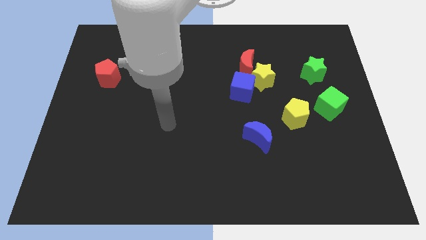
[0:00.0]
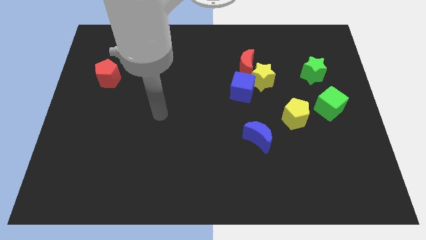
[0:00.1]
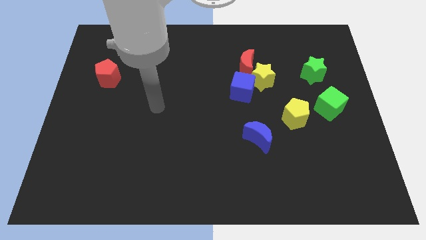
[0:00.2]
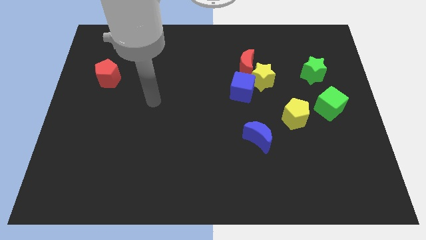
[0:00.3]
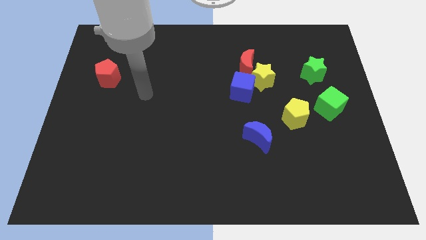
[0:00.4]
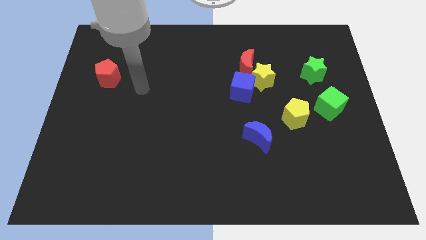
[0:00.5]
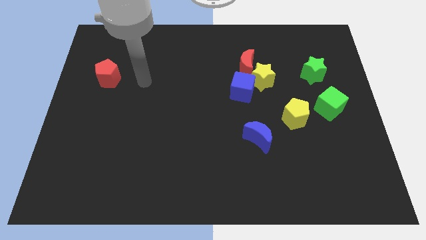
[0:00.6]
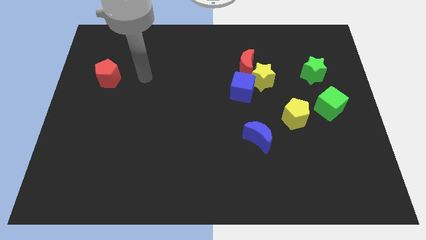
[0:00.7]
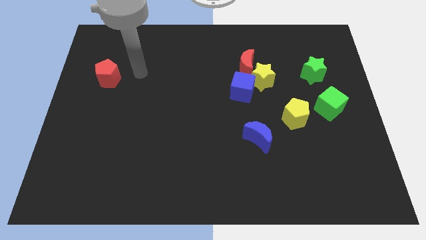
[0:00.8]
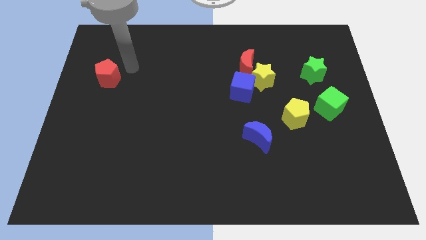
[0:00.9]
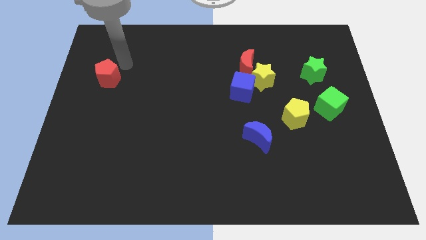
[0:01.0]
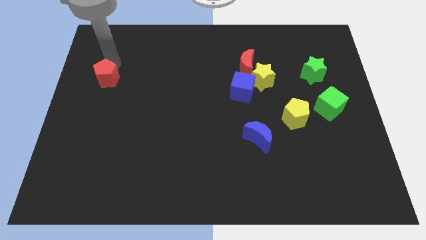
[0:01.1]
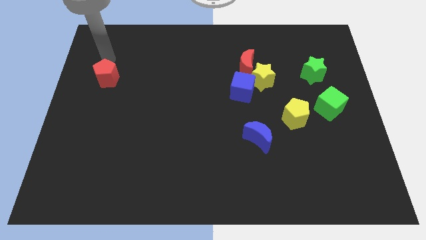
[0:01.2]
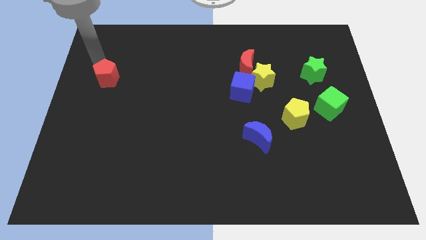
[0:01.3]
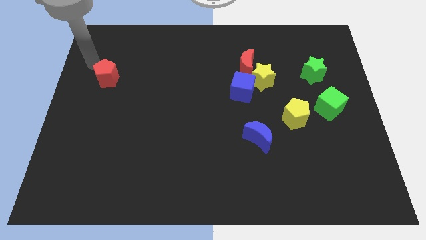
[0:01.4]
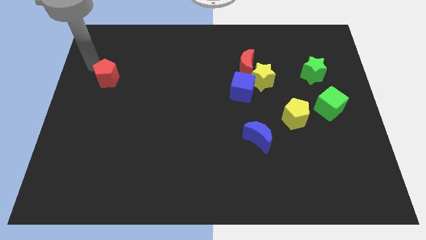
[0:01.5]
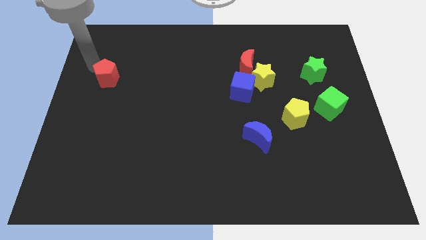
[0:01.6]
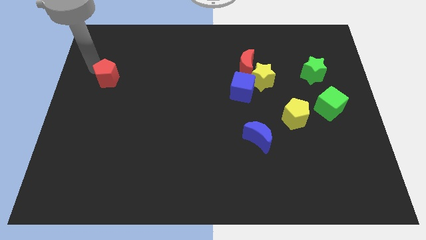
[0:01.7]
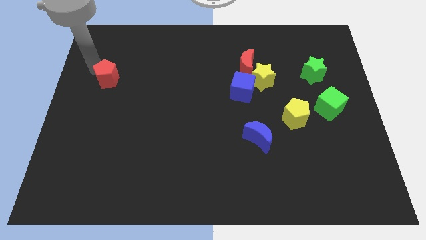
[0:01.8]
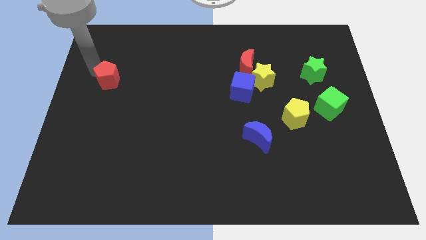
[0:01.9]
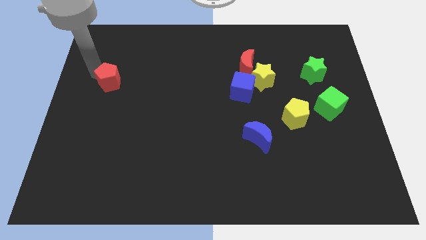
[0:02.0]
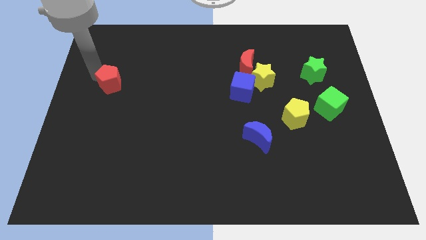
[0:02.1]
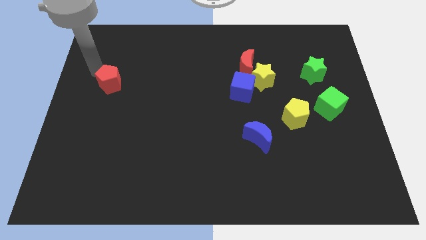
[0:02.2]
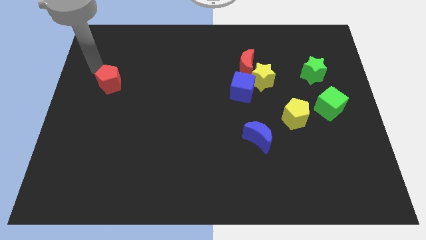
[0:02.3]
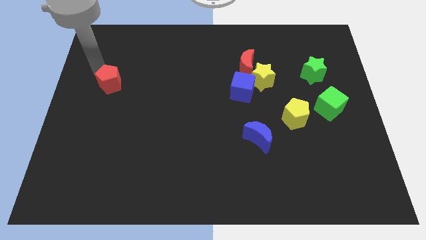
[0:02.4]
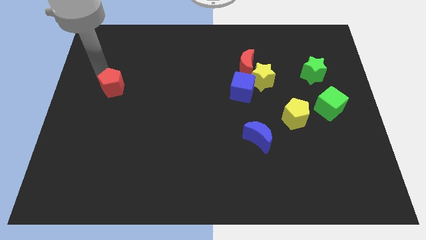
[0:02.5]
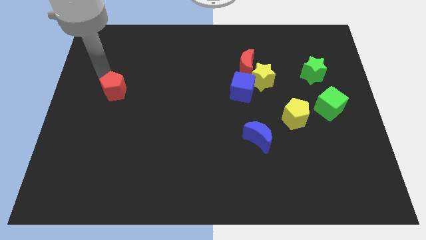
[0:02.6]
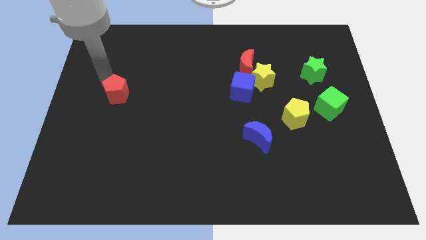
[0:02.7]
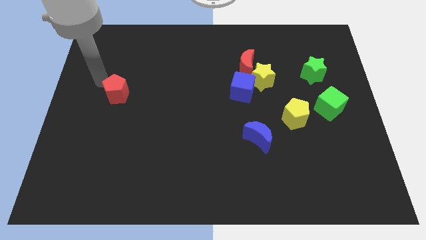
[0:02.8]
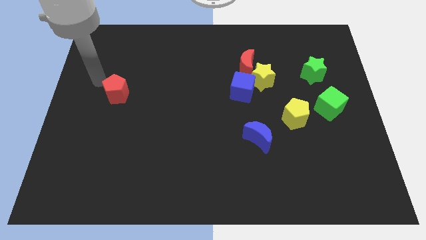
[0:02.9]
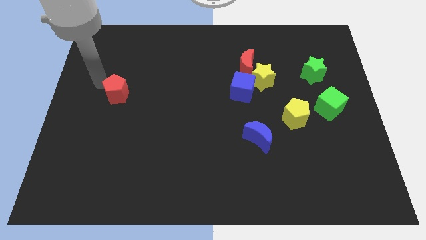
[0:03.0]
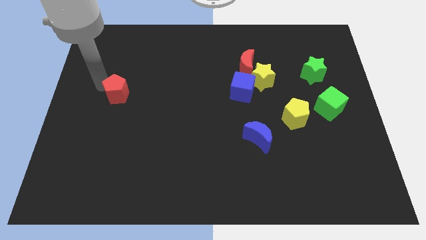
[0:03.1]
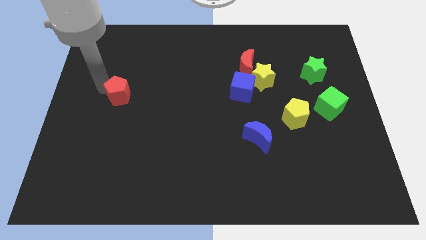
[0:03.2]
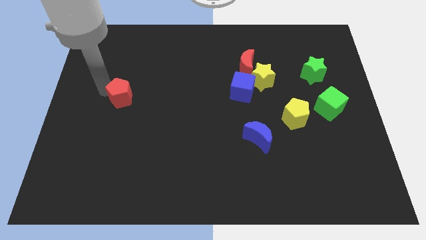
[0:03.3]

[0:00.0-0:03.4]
slightly move the red pentagon downwards and right diagonally

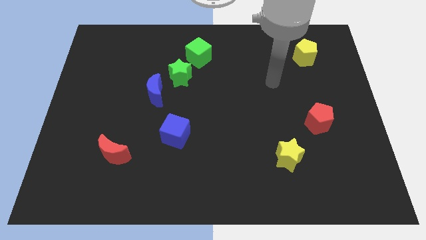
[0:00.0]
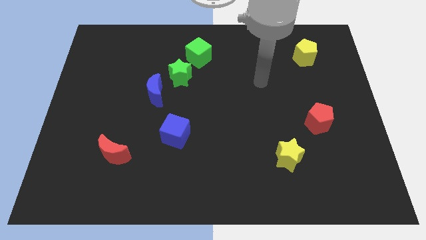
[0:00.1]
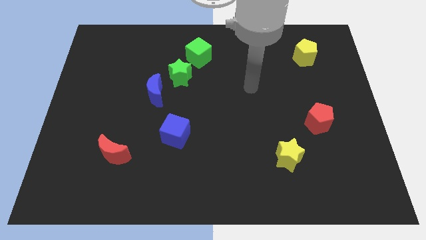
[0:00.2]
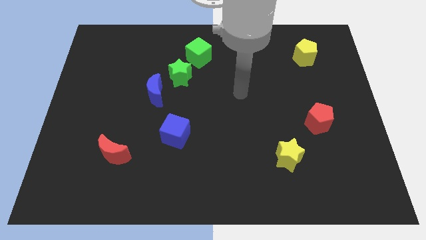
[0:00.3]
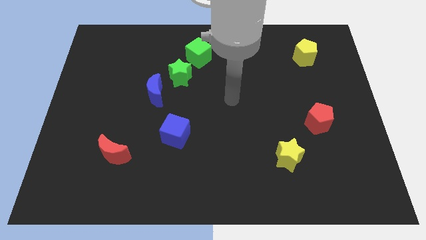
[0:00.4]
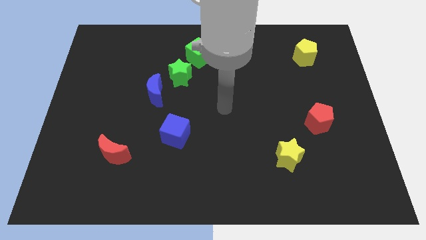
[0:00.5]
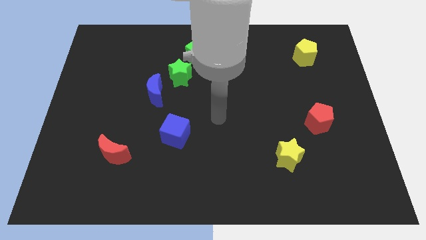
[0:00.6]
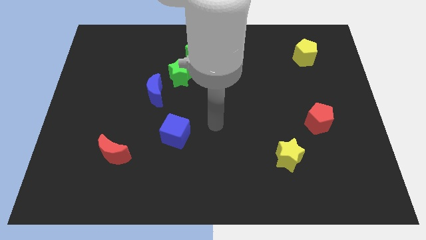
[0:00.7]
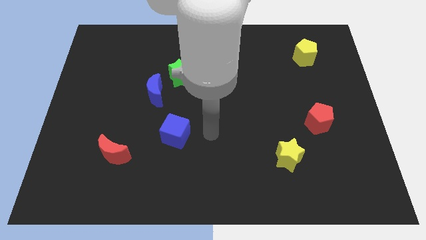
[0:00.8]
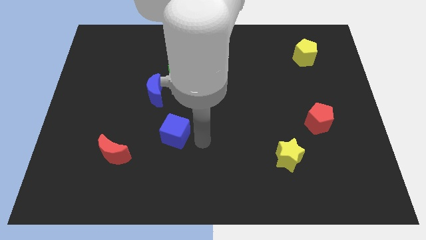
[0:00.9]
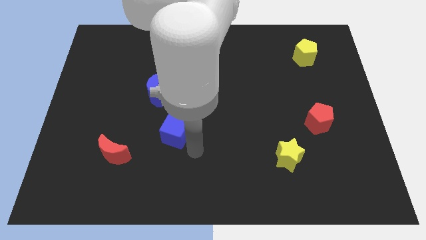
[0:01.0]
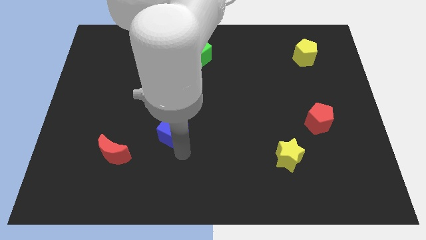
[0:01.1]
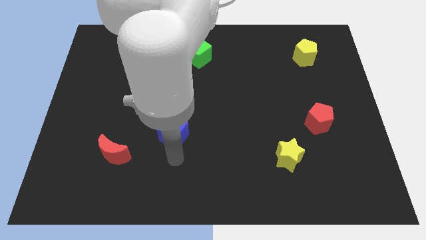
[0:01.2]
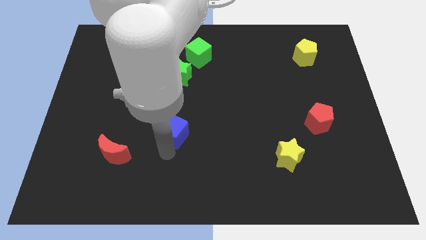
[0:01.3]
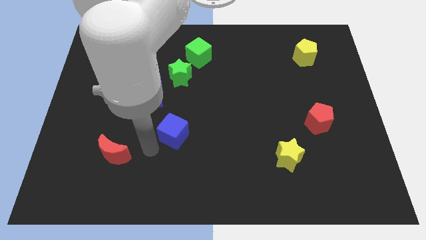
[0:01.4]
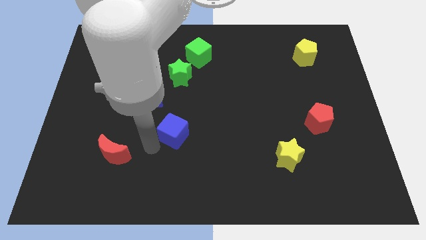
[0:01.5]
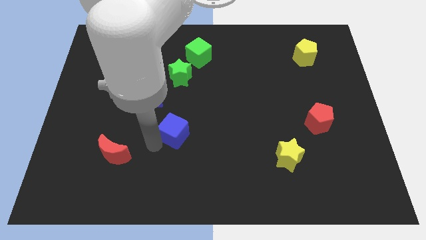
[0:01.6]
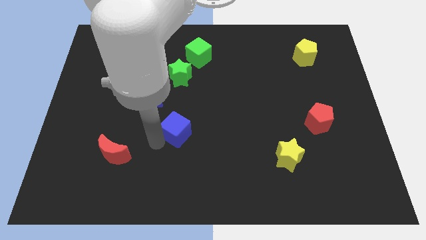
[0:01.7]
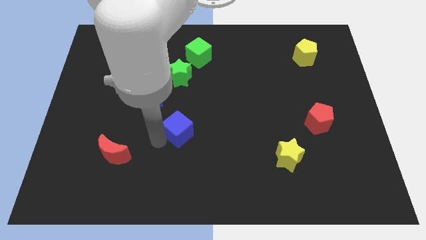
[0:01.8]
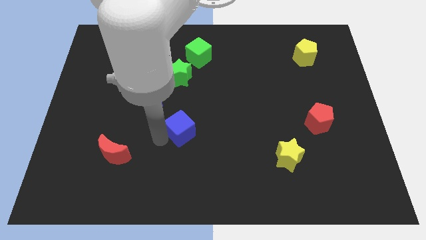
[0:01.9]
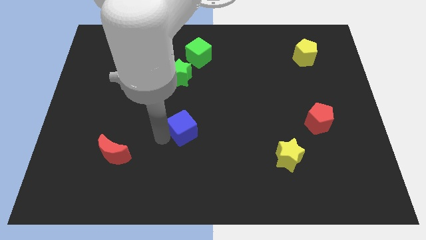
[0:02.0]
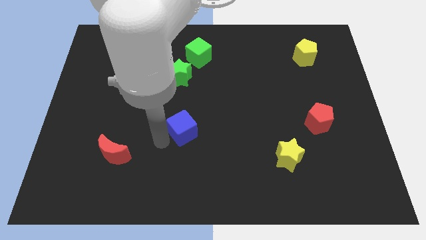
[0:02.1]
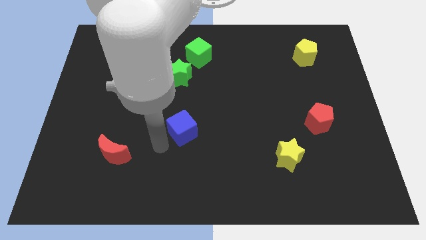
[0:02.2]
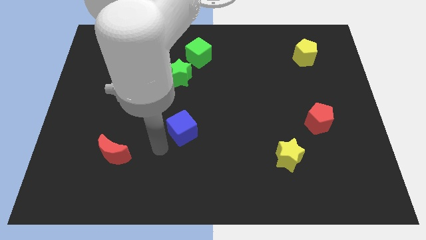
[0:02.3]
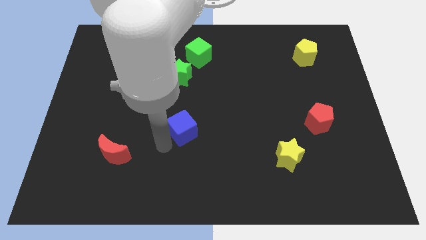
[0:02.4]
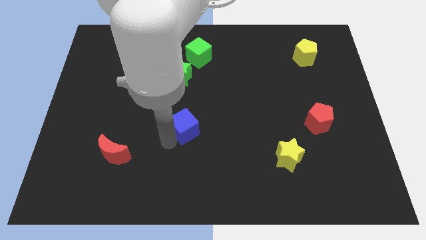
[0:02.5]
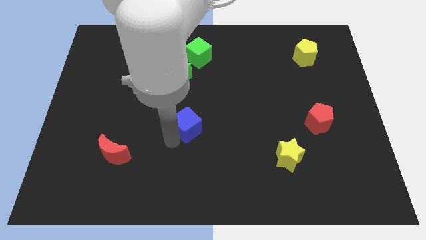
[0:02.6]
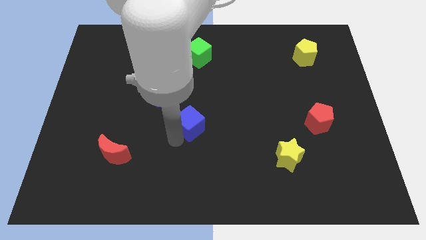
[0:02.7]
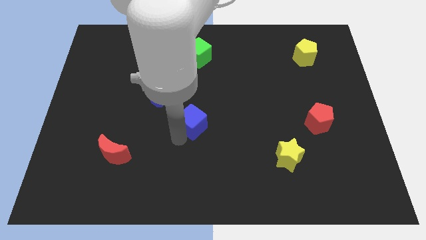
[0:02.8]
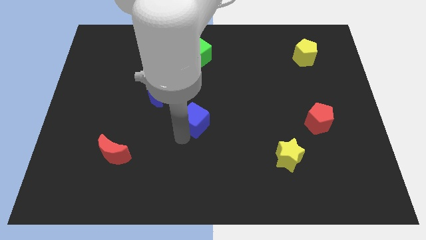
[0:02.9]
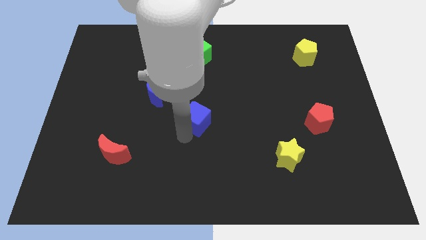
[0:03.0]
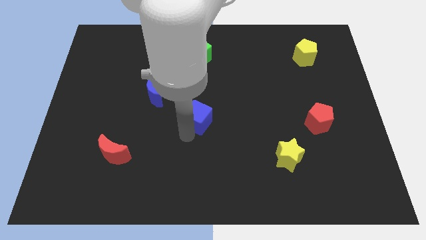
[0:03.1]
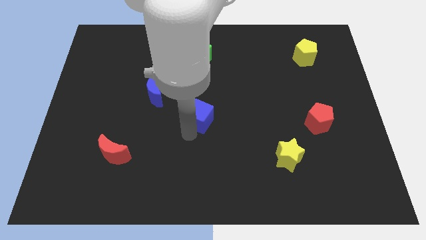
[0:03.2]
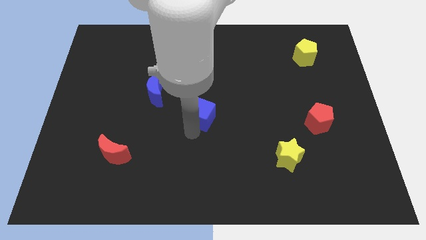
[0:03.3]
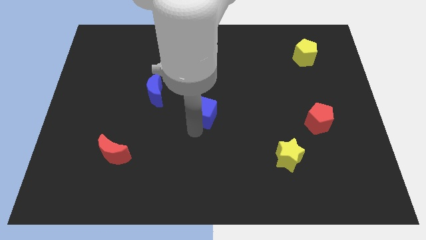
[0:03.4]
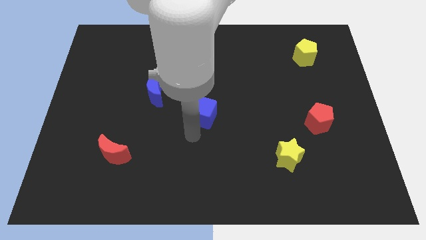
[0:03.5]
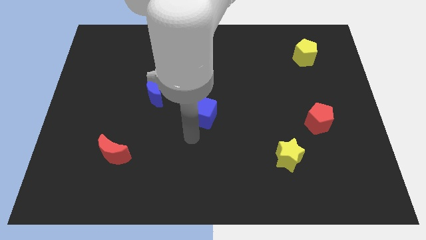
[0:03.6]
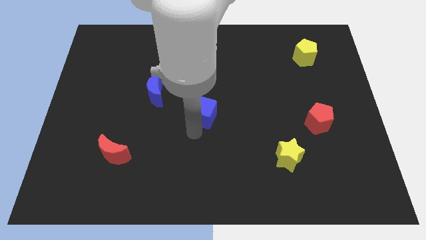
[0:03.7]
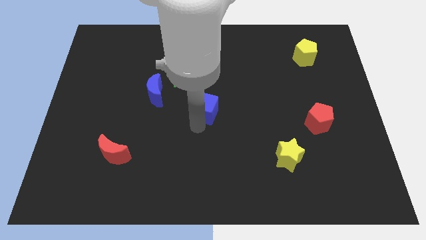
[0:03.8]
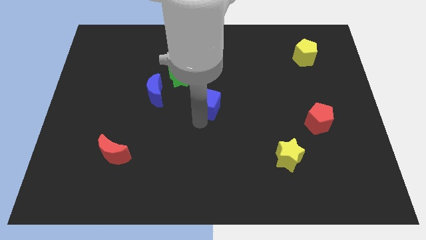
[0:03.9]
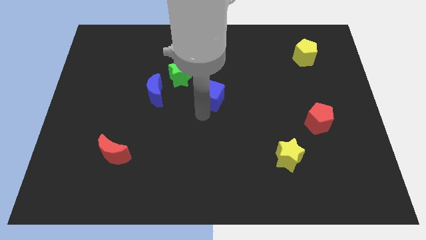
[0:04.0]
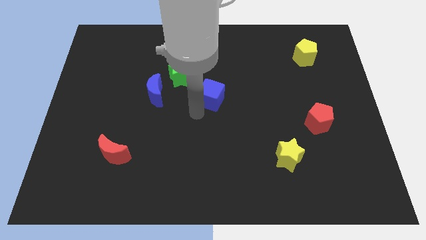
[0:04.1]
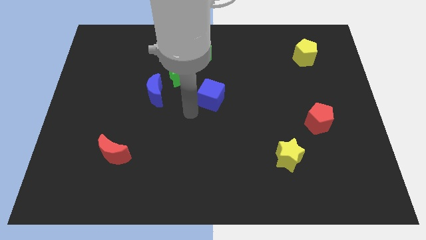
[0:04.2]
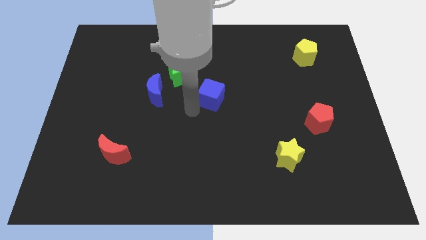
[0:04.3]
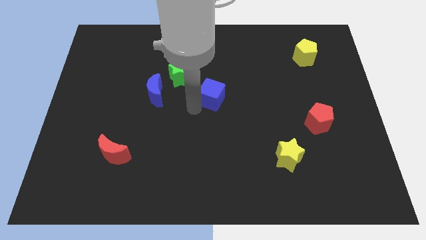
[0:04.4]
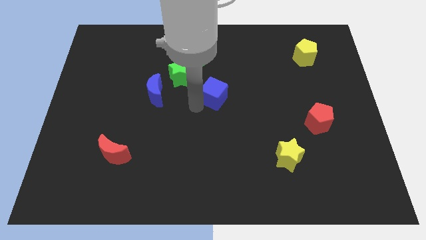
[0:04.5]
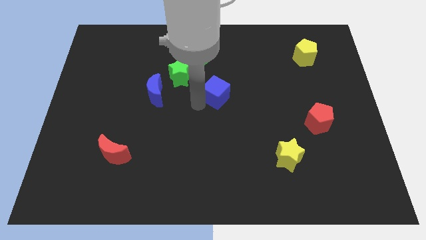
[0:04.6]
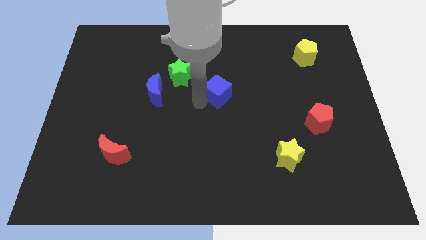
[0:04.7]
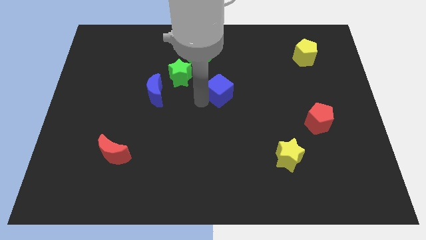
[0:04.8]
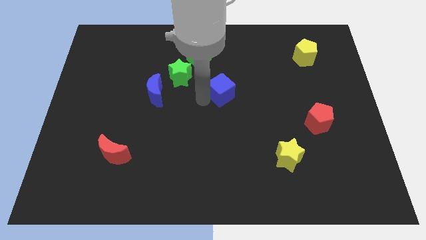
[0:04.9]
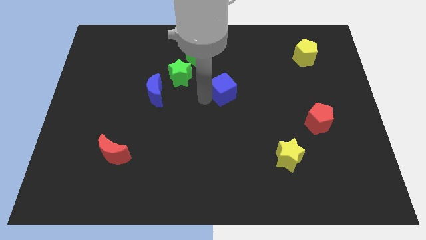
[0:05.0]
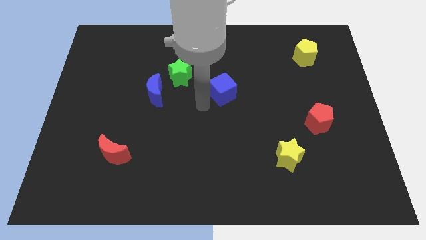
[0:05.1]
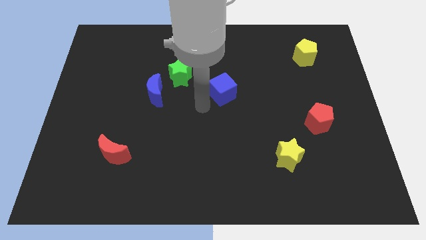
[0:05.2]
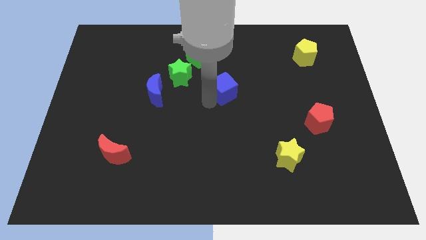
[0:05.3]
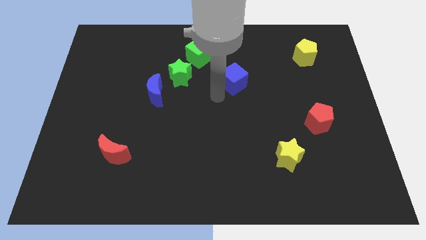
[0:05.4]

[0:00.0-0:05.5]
move the blue cube up and to the right diagonally
